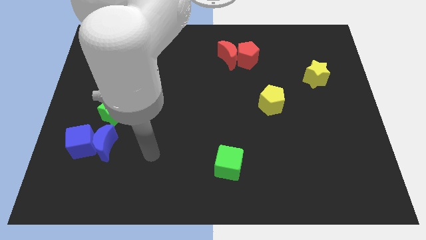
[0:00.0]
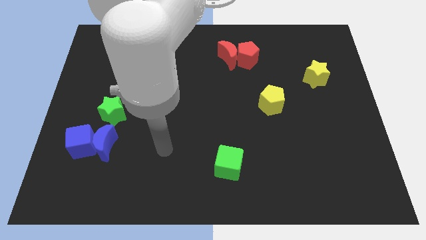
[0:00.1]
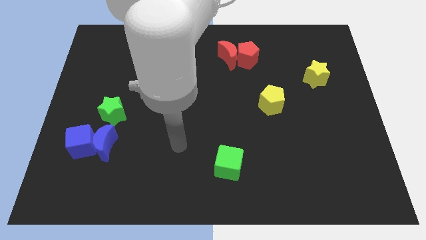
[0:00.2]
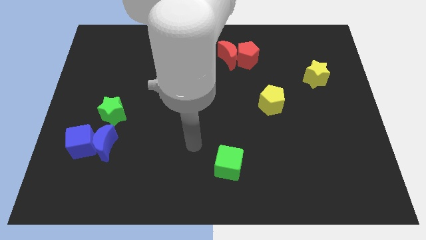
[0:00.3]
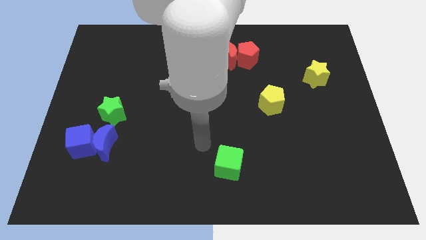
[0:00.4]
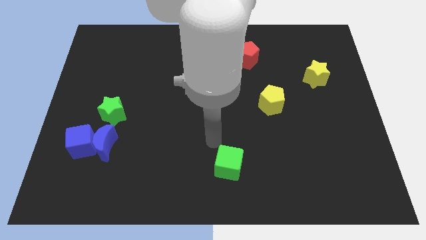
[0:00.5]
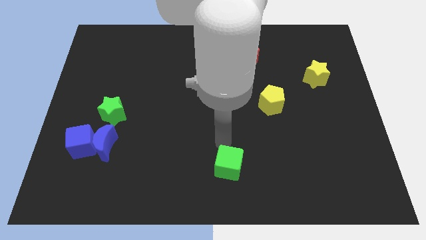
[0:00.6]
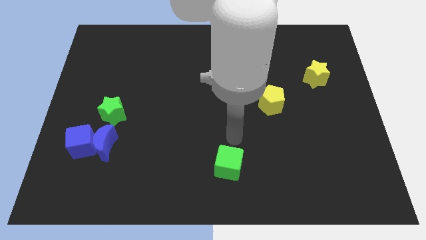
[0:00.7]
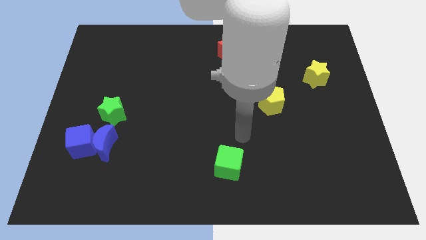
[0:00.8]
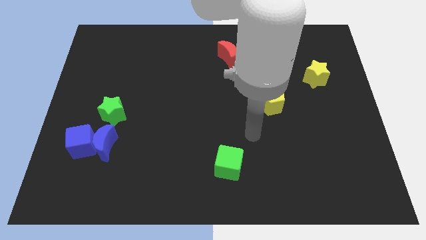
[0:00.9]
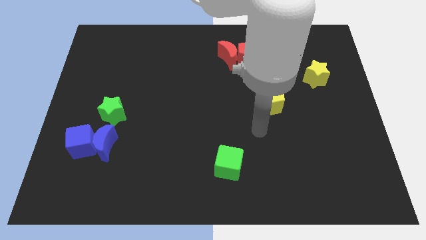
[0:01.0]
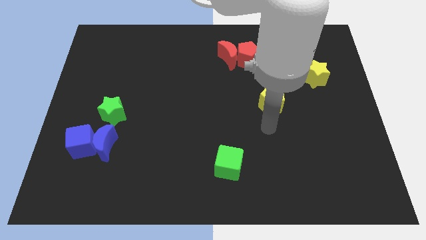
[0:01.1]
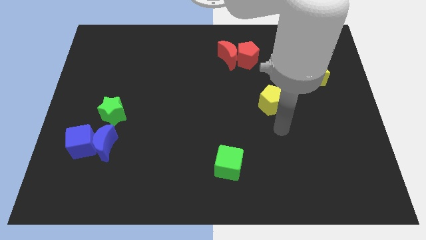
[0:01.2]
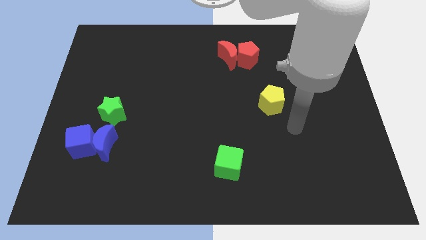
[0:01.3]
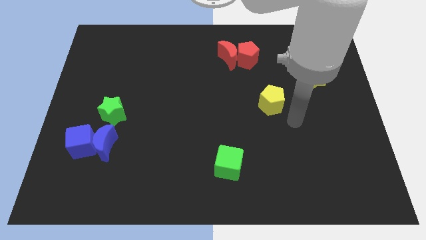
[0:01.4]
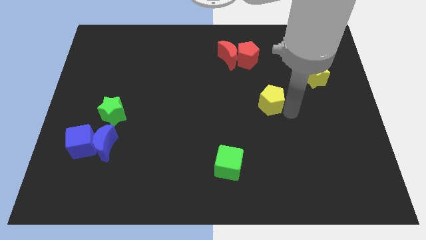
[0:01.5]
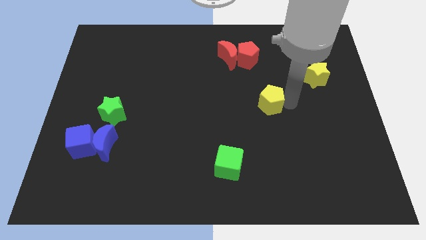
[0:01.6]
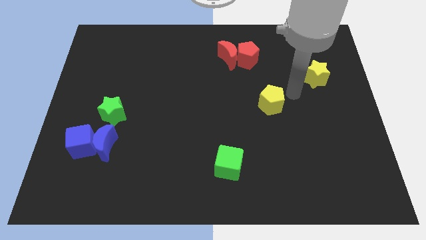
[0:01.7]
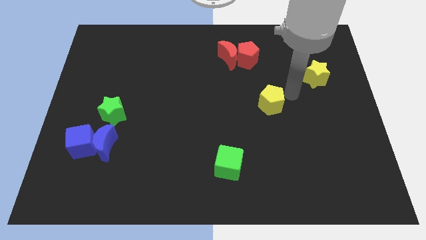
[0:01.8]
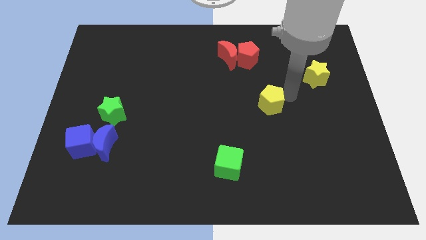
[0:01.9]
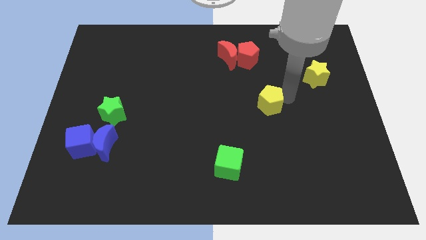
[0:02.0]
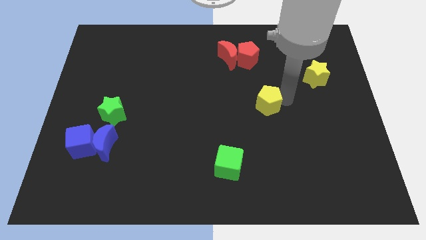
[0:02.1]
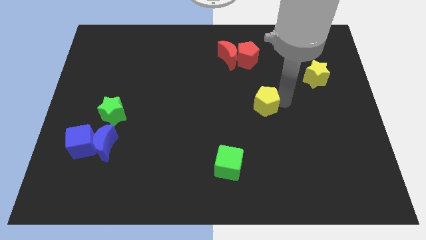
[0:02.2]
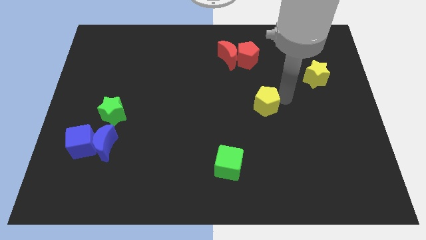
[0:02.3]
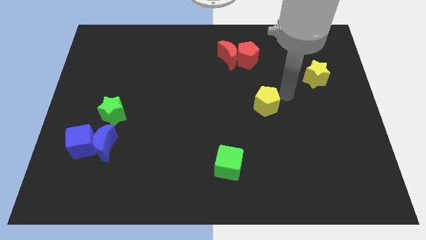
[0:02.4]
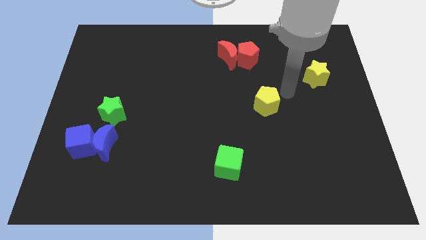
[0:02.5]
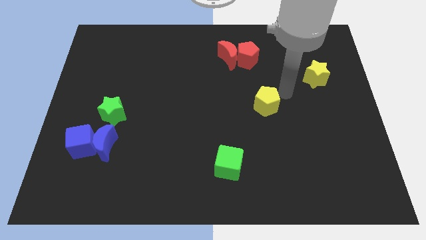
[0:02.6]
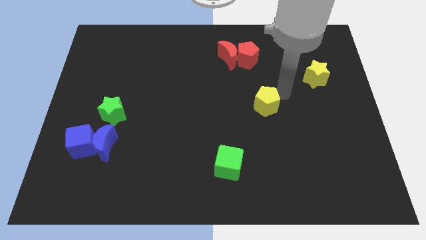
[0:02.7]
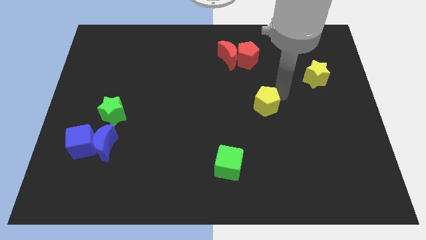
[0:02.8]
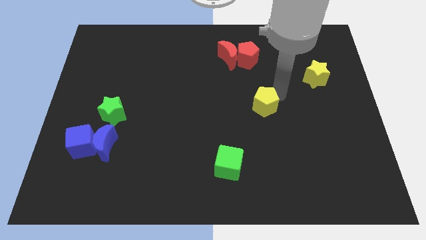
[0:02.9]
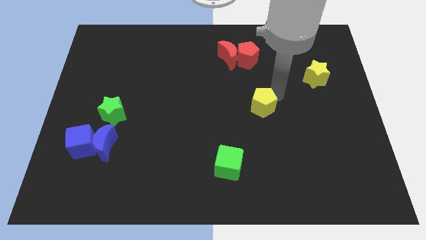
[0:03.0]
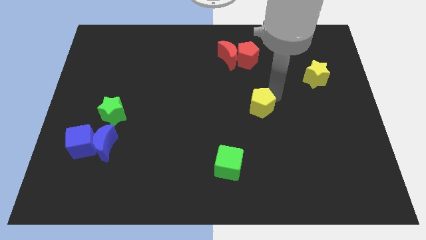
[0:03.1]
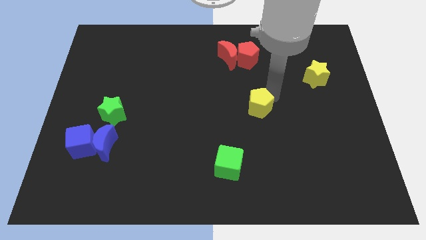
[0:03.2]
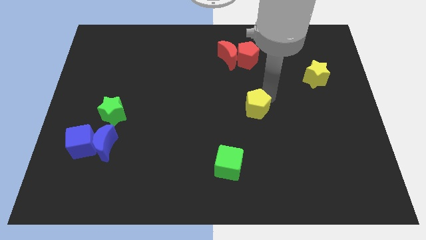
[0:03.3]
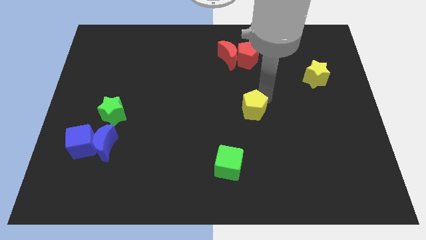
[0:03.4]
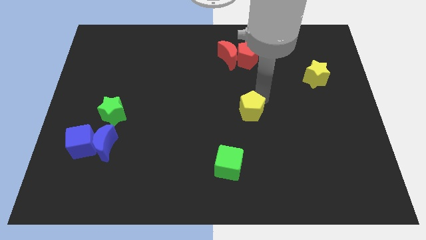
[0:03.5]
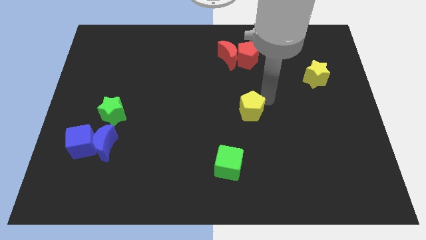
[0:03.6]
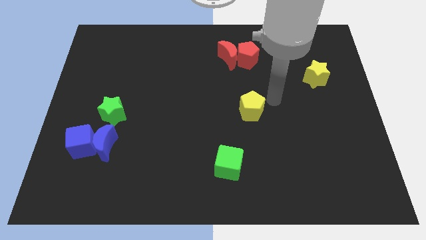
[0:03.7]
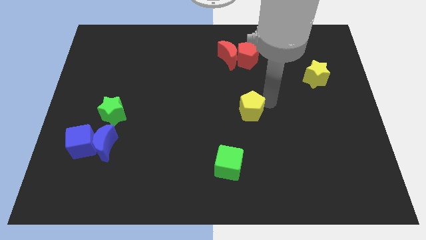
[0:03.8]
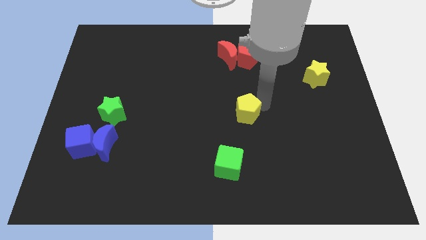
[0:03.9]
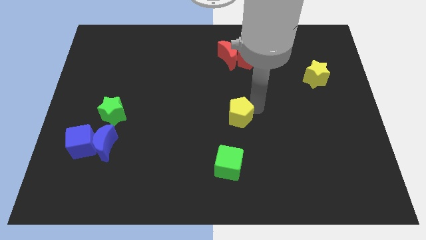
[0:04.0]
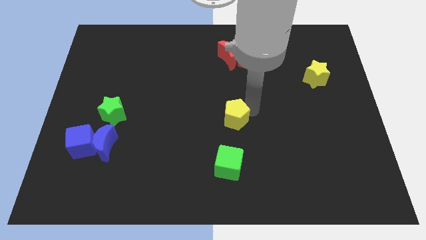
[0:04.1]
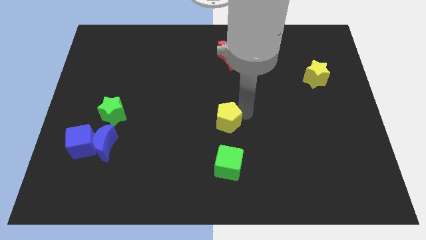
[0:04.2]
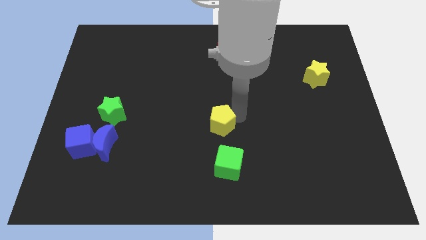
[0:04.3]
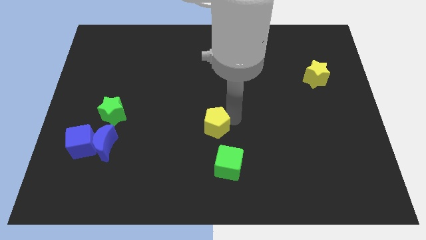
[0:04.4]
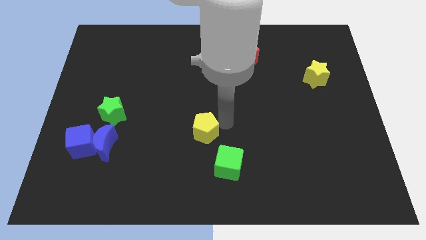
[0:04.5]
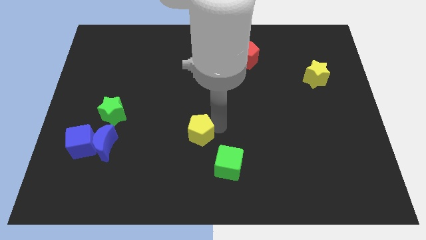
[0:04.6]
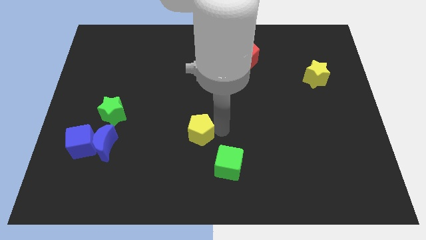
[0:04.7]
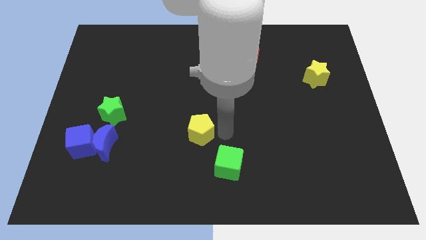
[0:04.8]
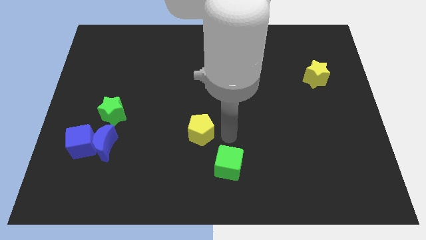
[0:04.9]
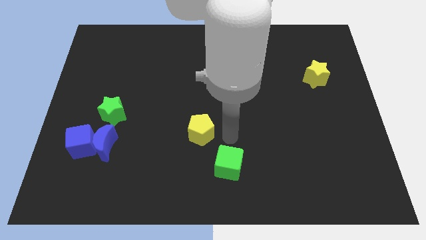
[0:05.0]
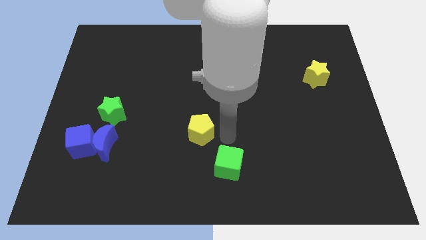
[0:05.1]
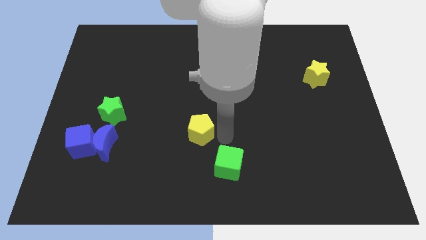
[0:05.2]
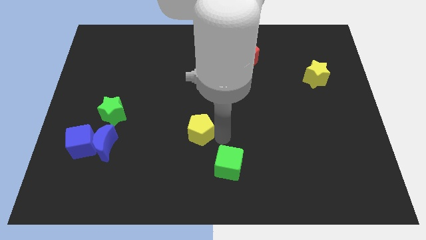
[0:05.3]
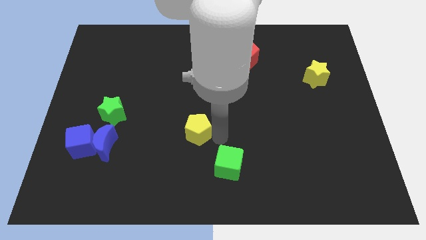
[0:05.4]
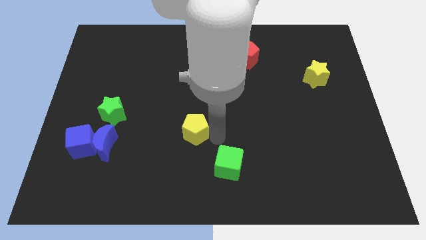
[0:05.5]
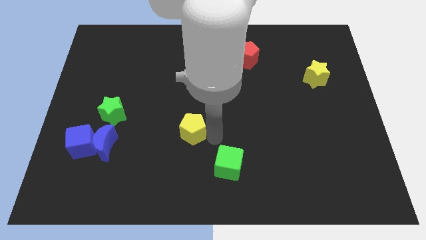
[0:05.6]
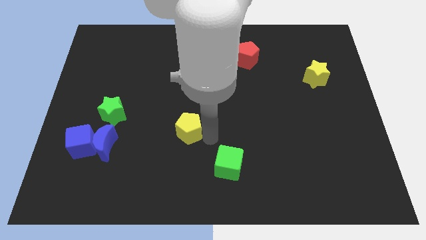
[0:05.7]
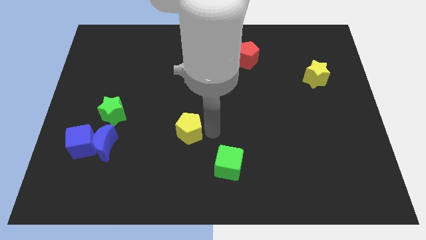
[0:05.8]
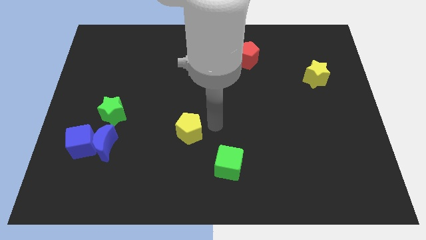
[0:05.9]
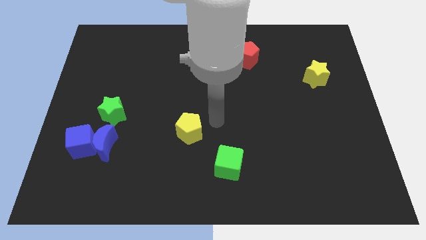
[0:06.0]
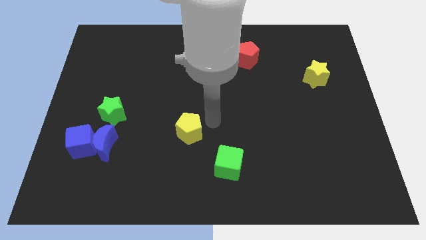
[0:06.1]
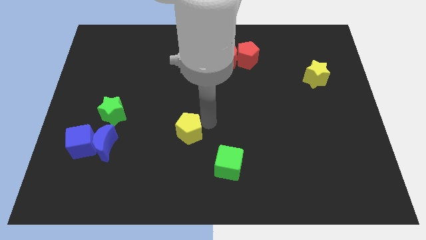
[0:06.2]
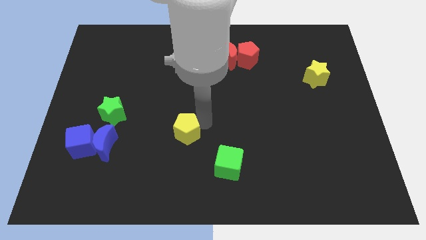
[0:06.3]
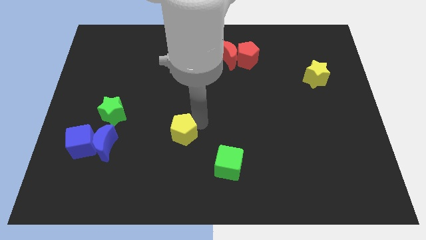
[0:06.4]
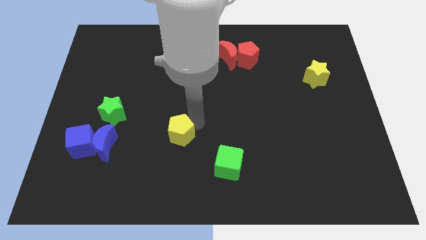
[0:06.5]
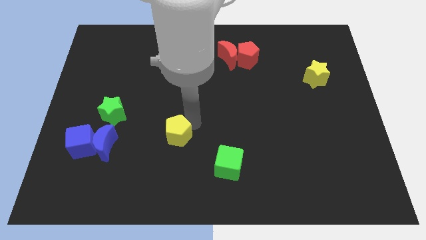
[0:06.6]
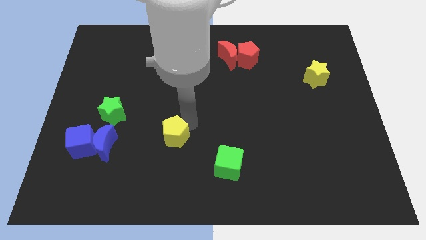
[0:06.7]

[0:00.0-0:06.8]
slide the yellow pentagon just right of the blue moon
